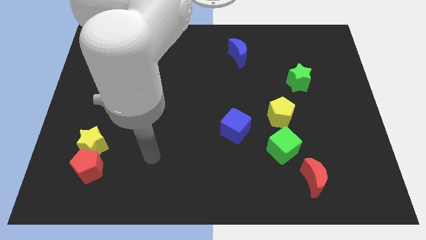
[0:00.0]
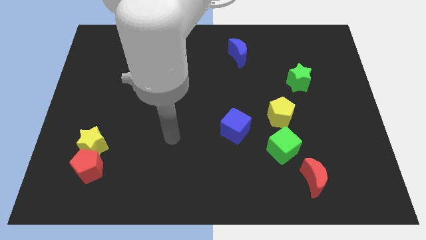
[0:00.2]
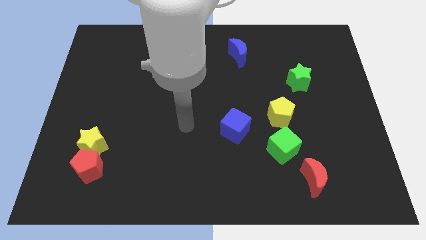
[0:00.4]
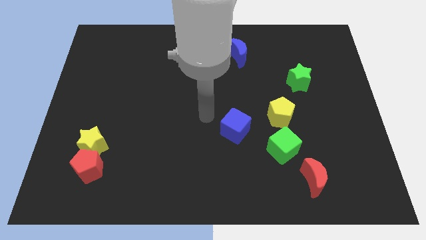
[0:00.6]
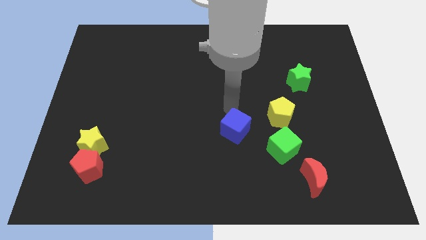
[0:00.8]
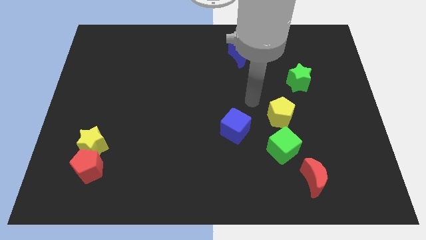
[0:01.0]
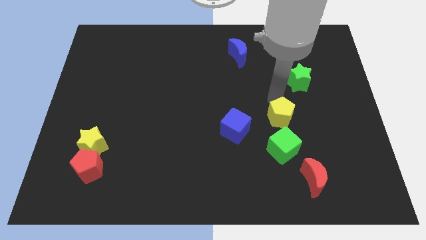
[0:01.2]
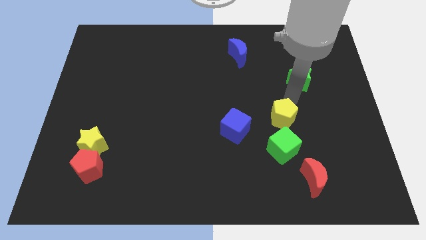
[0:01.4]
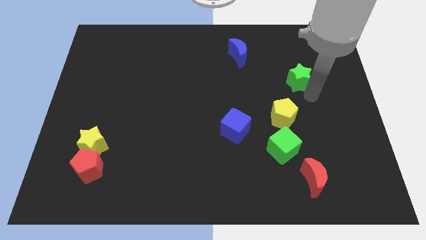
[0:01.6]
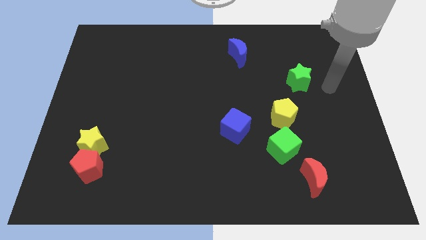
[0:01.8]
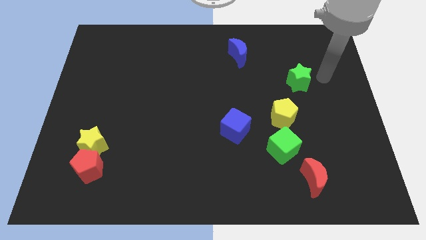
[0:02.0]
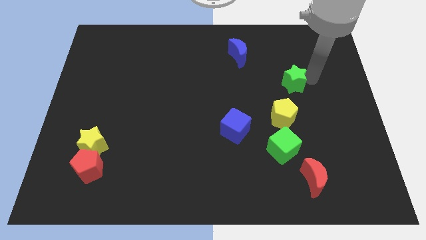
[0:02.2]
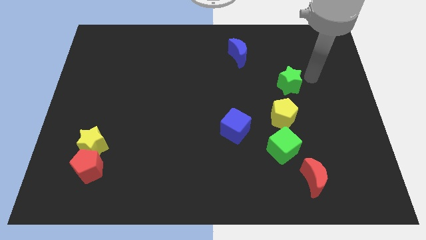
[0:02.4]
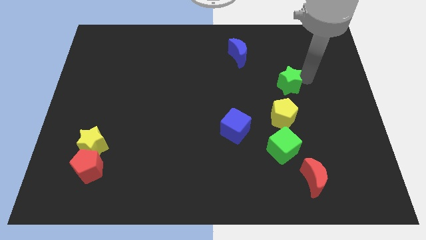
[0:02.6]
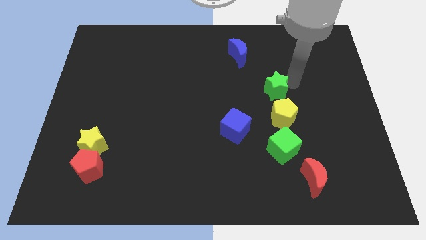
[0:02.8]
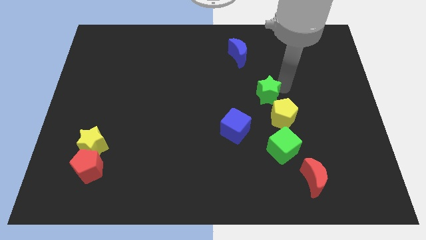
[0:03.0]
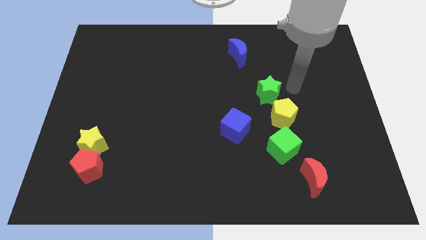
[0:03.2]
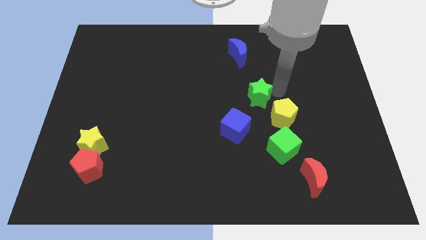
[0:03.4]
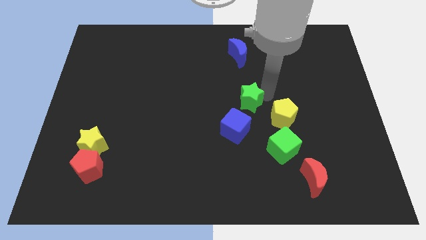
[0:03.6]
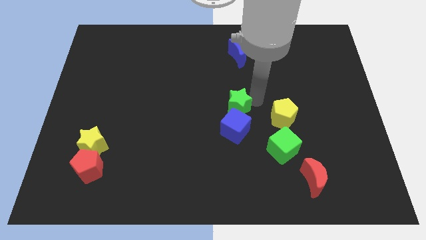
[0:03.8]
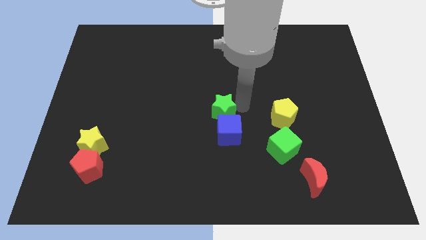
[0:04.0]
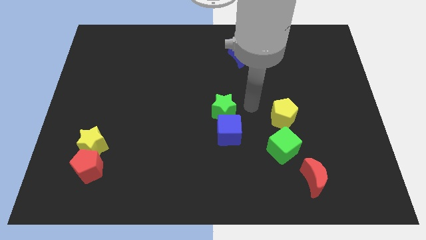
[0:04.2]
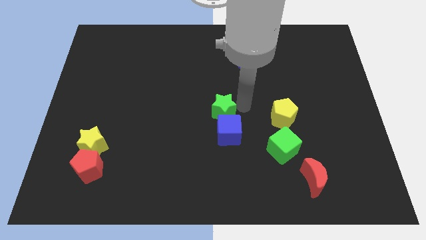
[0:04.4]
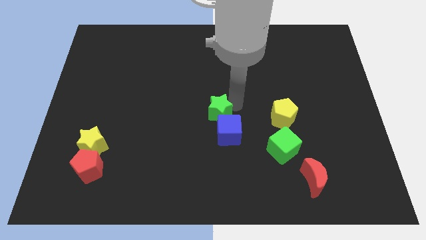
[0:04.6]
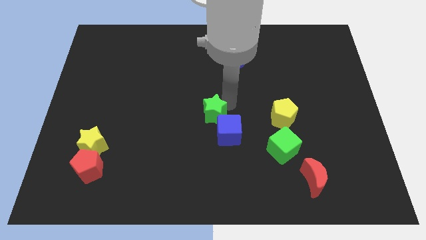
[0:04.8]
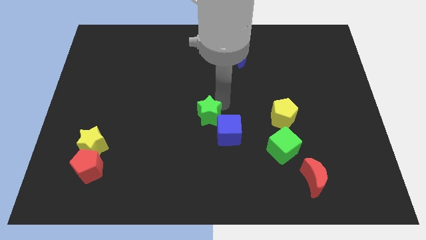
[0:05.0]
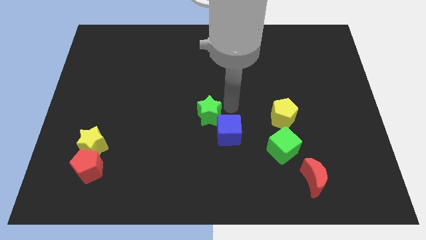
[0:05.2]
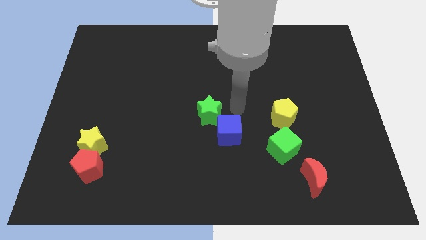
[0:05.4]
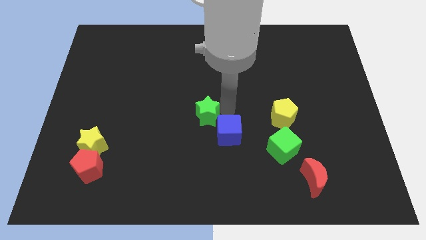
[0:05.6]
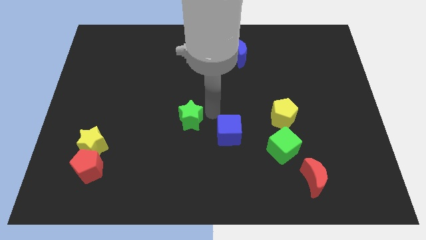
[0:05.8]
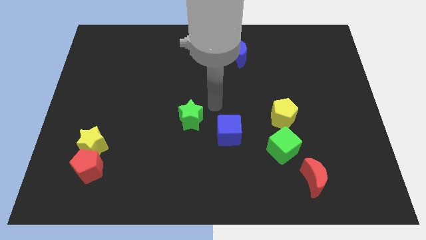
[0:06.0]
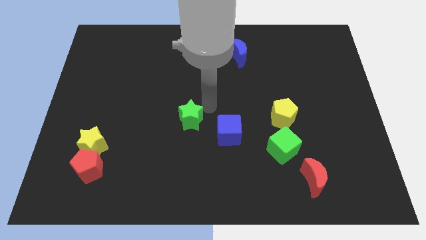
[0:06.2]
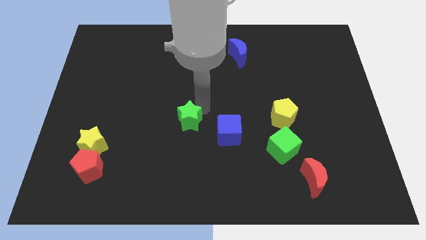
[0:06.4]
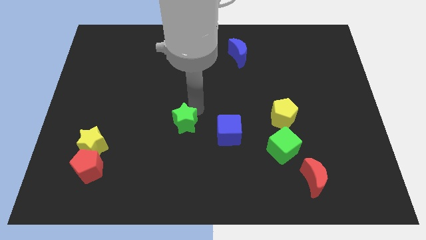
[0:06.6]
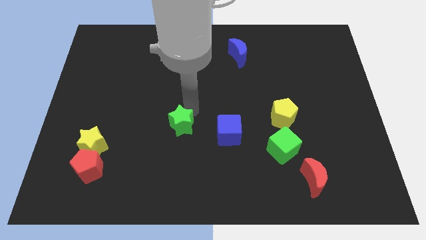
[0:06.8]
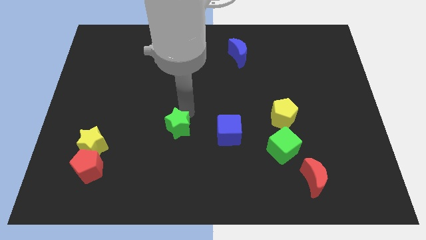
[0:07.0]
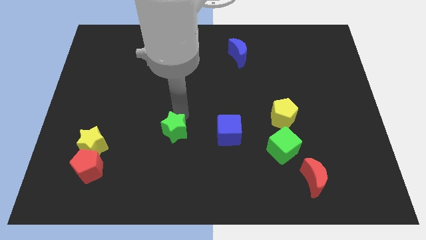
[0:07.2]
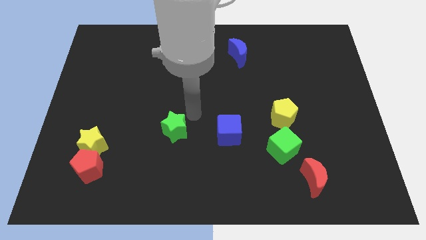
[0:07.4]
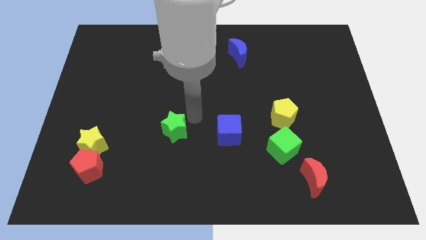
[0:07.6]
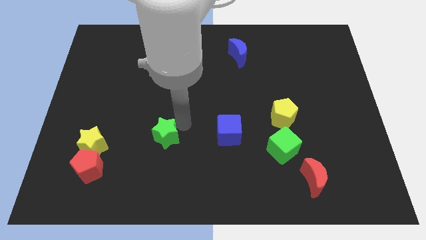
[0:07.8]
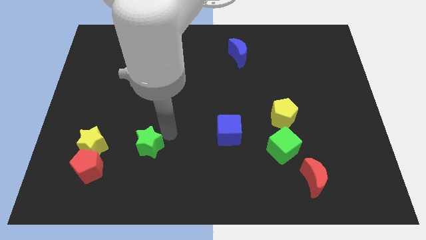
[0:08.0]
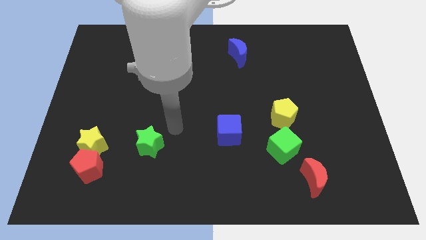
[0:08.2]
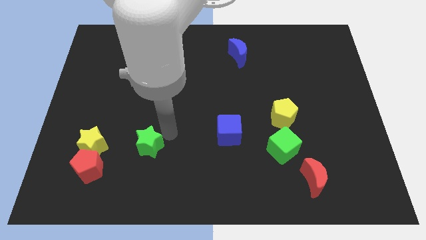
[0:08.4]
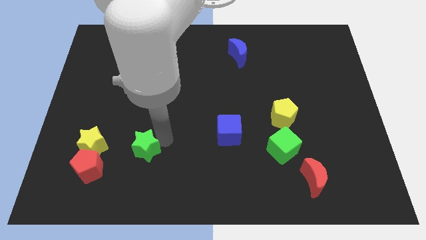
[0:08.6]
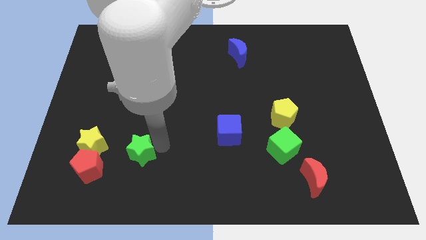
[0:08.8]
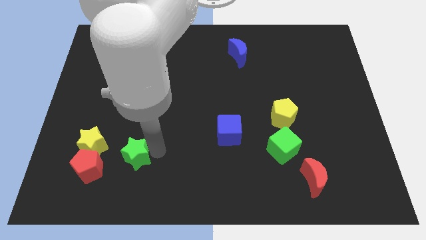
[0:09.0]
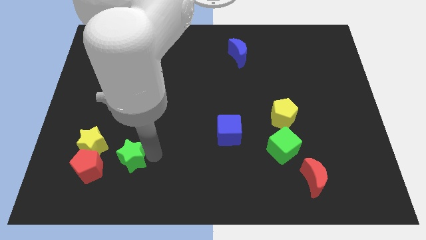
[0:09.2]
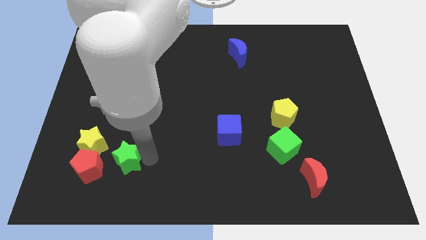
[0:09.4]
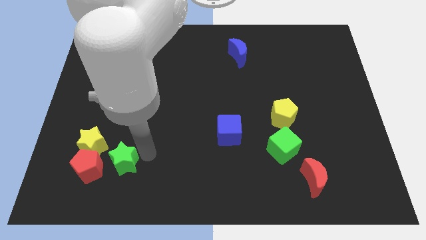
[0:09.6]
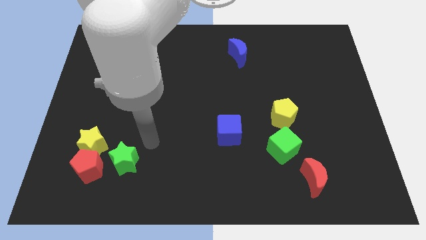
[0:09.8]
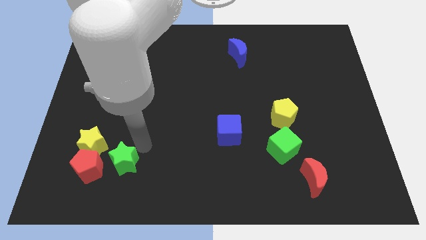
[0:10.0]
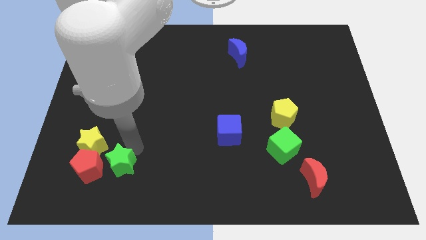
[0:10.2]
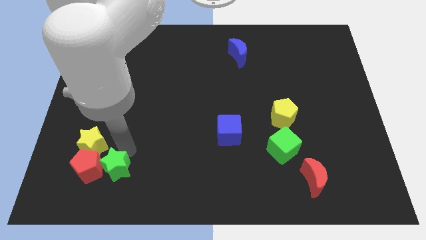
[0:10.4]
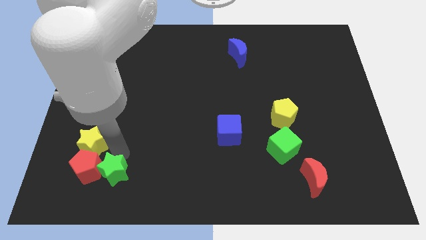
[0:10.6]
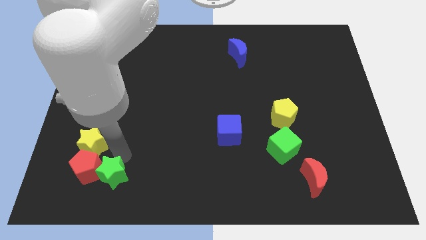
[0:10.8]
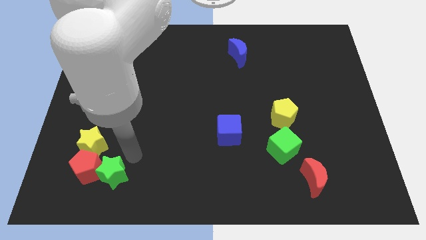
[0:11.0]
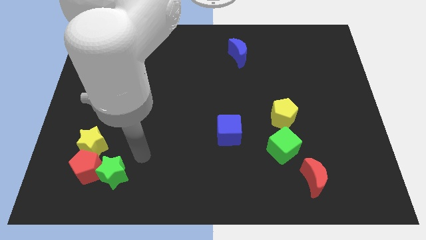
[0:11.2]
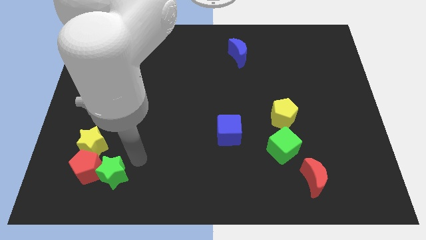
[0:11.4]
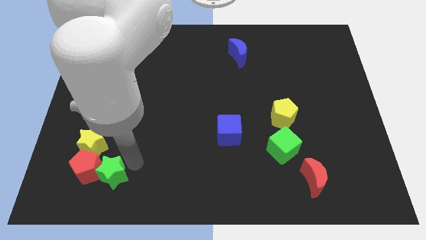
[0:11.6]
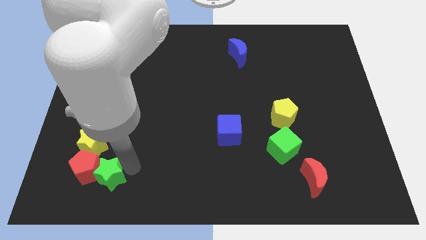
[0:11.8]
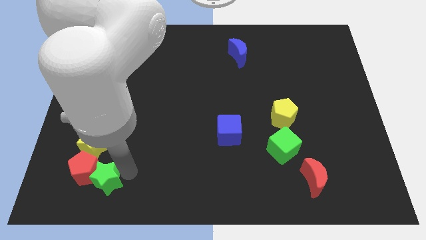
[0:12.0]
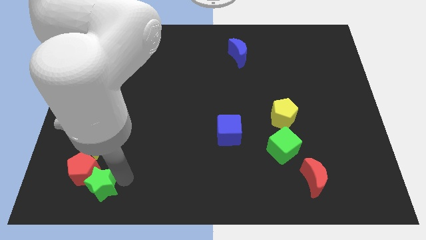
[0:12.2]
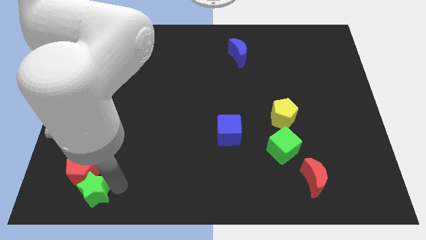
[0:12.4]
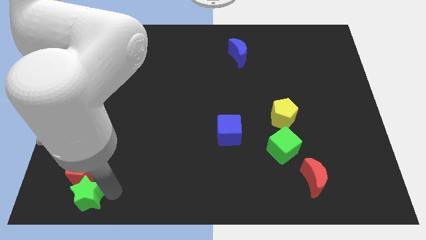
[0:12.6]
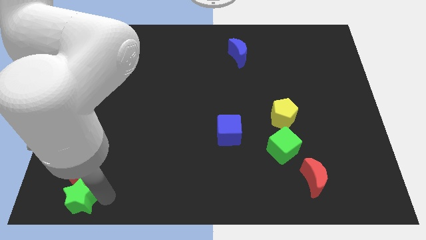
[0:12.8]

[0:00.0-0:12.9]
push the green star to the bottom left
